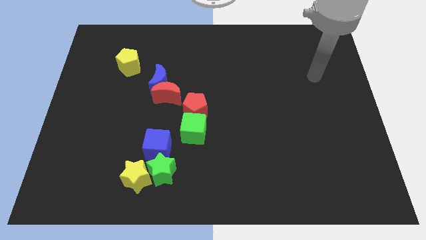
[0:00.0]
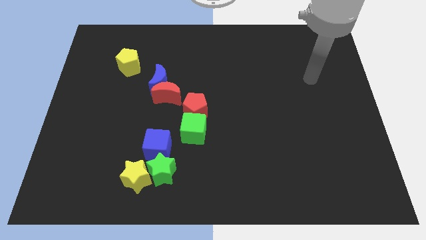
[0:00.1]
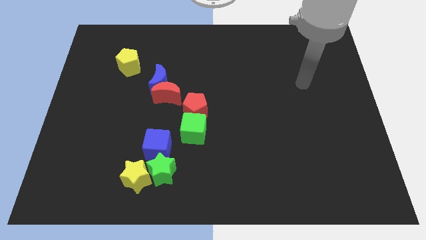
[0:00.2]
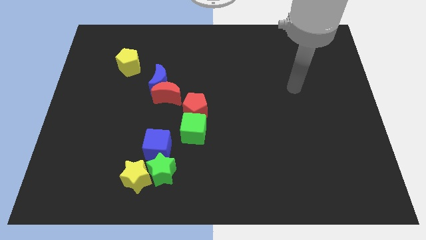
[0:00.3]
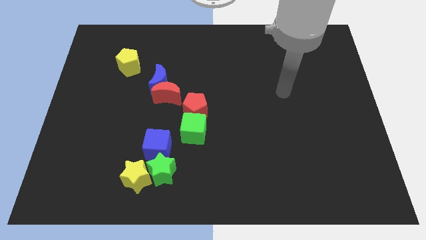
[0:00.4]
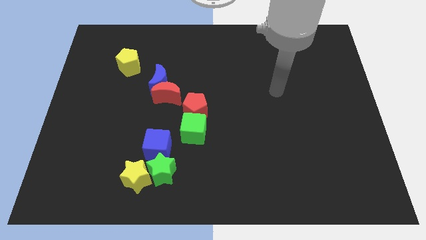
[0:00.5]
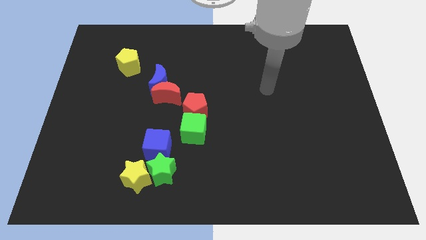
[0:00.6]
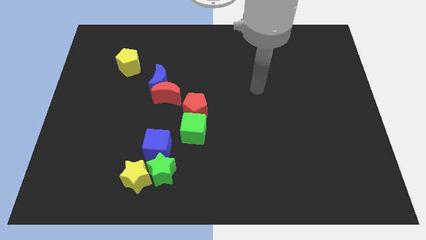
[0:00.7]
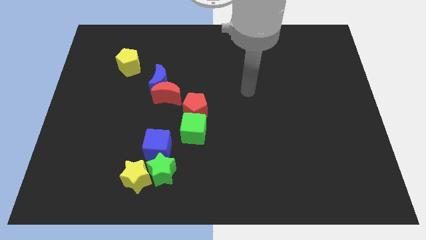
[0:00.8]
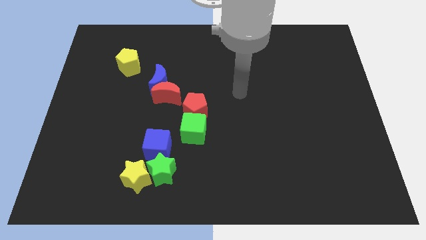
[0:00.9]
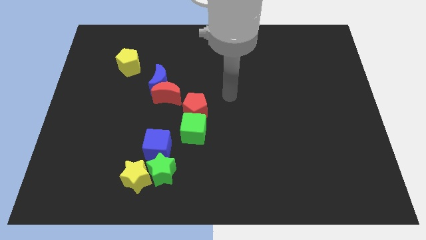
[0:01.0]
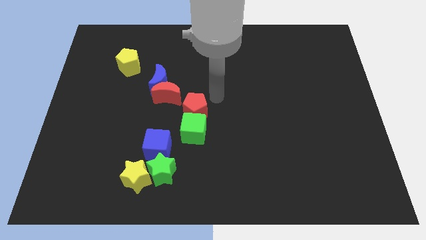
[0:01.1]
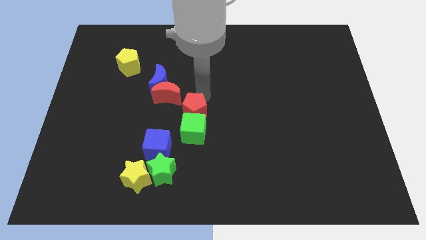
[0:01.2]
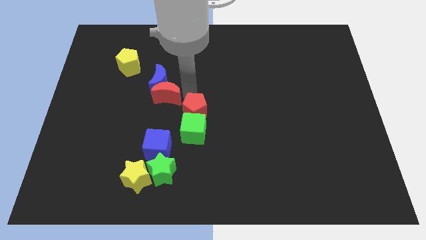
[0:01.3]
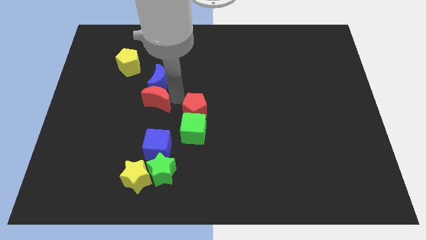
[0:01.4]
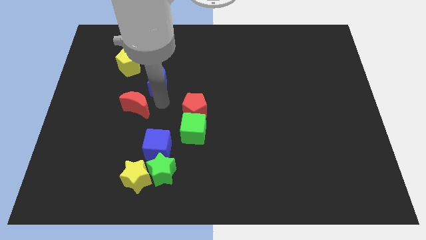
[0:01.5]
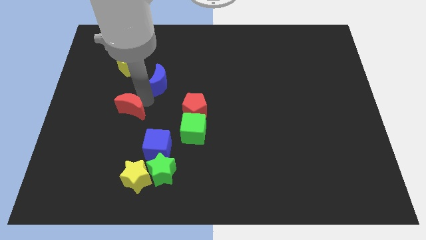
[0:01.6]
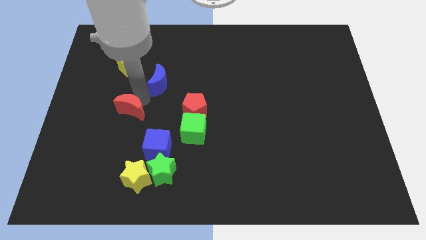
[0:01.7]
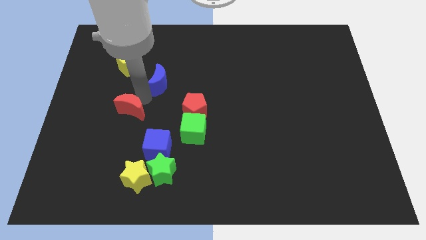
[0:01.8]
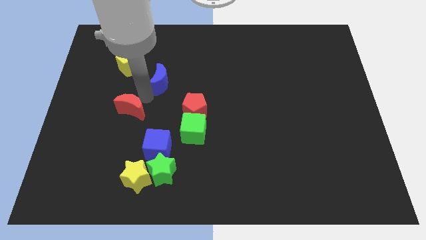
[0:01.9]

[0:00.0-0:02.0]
pull the blue moon apart from the red moon

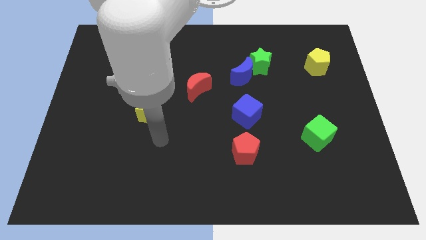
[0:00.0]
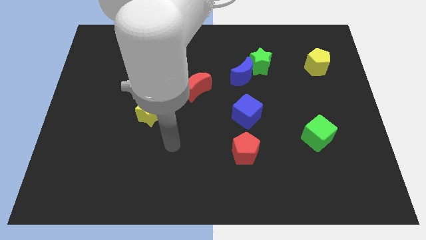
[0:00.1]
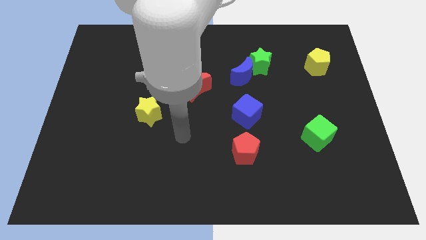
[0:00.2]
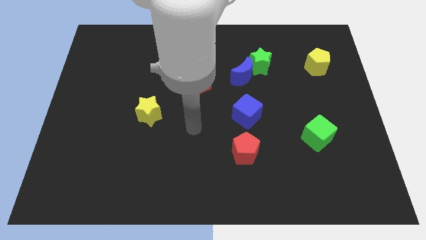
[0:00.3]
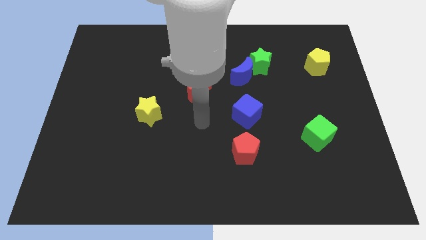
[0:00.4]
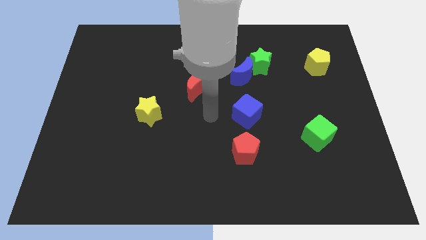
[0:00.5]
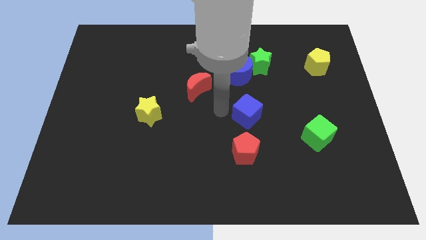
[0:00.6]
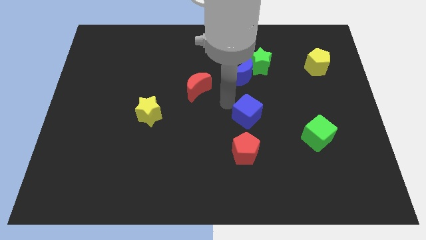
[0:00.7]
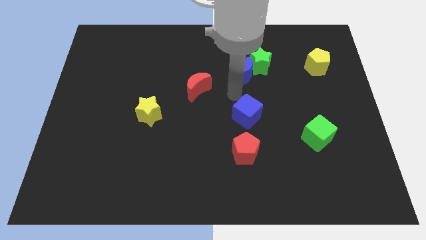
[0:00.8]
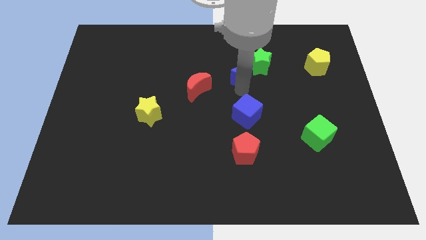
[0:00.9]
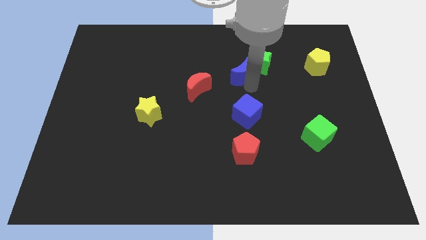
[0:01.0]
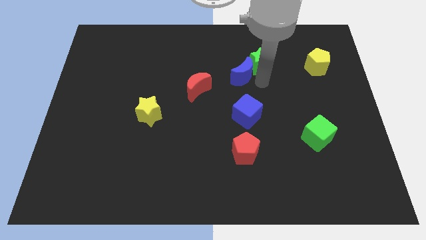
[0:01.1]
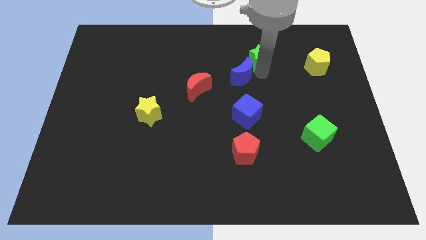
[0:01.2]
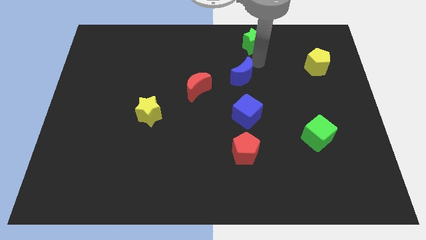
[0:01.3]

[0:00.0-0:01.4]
pull the blue moon apart from the green star

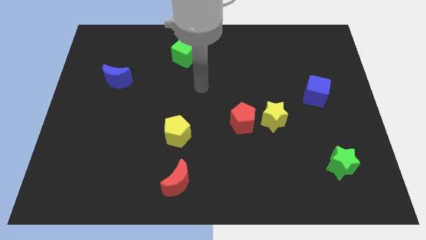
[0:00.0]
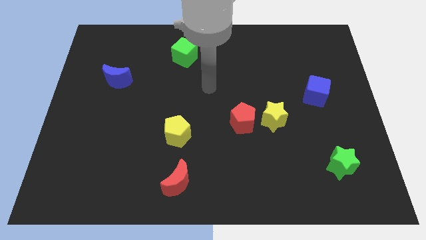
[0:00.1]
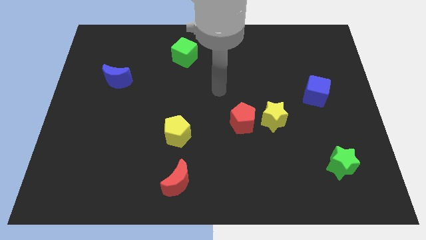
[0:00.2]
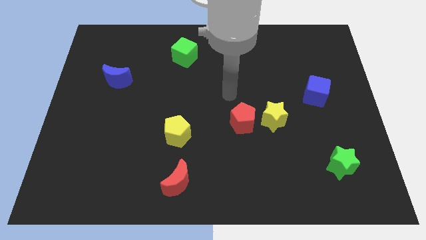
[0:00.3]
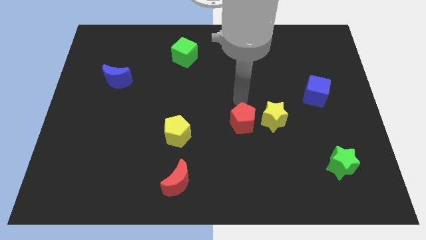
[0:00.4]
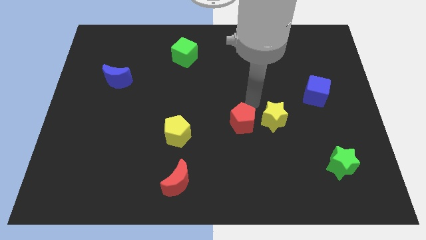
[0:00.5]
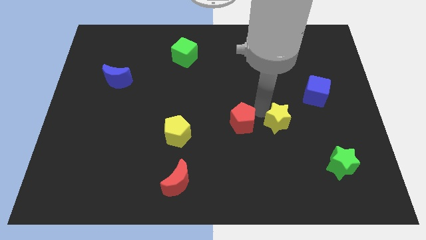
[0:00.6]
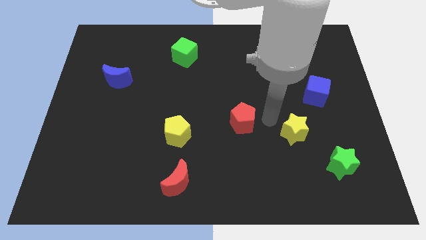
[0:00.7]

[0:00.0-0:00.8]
pull the red pentagon apart from the yellow star

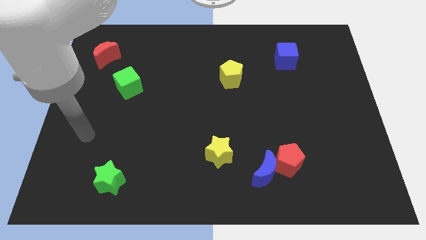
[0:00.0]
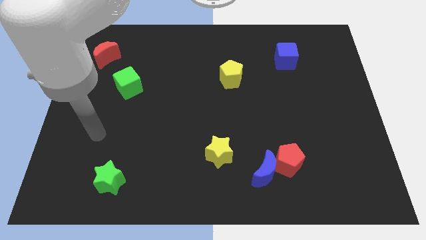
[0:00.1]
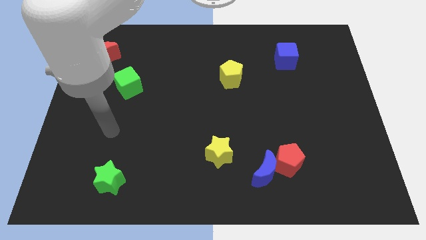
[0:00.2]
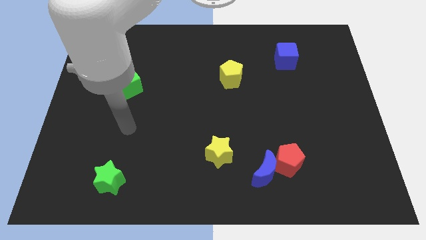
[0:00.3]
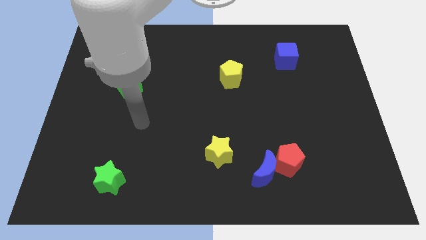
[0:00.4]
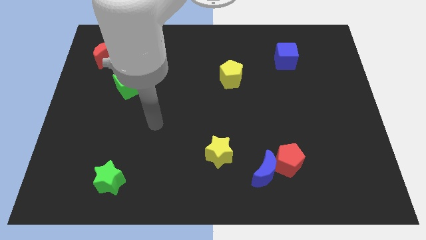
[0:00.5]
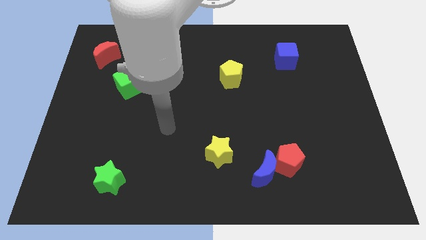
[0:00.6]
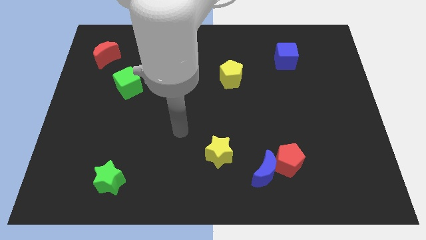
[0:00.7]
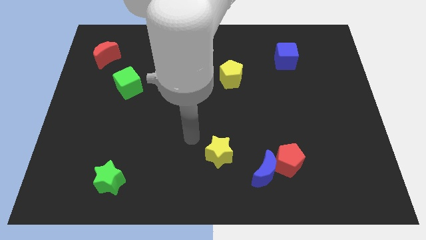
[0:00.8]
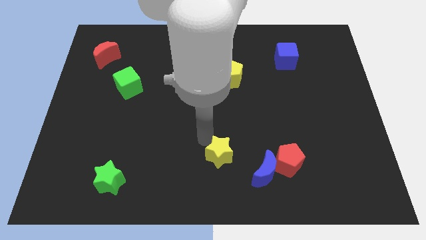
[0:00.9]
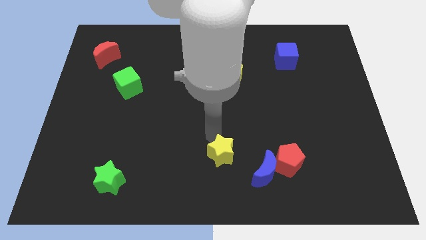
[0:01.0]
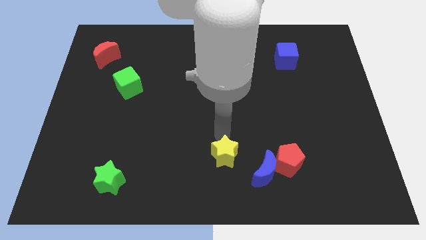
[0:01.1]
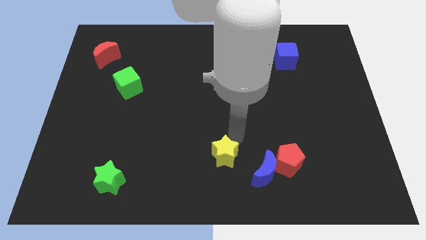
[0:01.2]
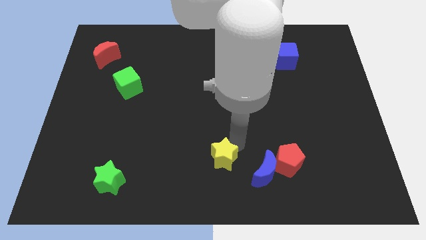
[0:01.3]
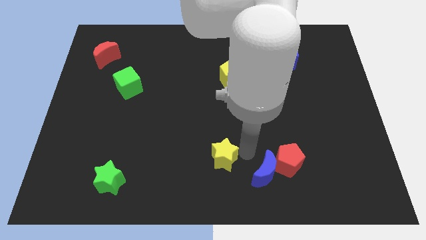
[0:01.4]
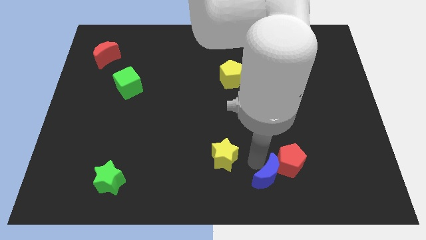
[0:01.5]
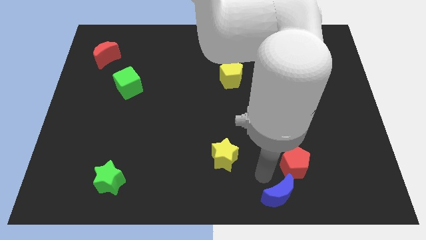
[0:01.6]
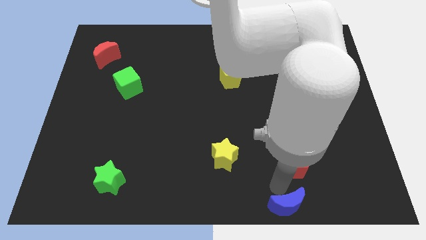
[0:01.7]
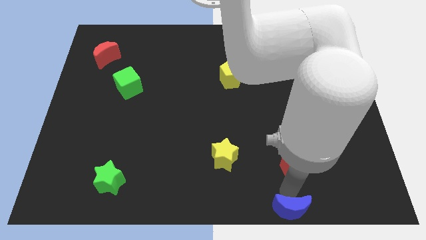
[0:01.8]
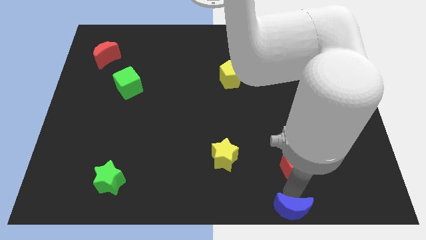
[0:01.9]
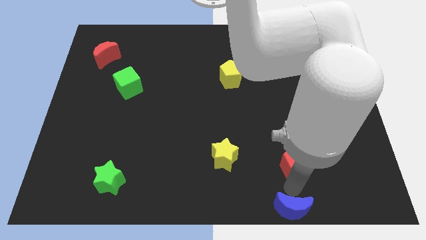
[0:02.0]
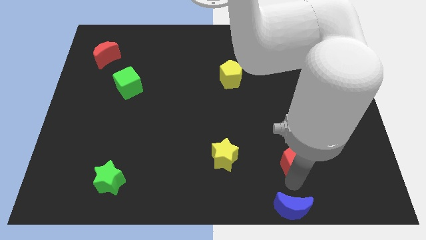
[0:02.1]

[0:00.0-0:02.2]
pull the red pentagon apart from the blue moon

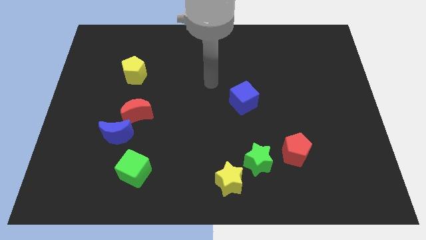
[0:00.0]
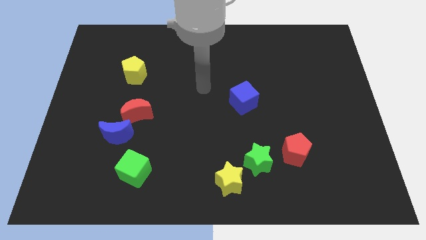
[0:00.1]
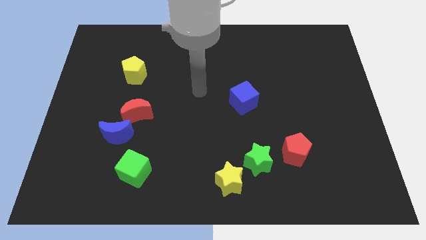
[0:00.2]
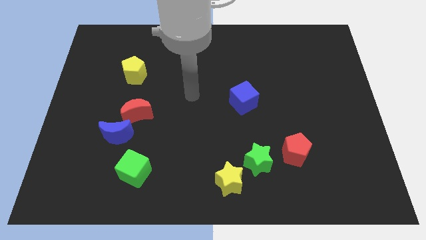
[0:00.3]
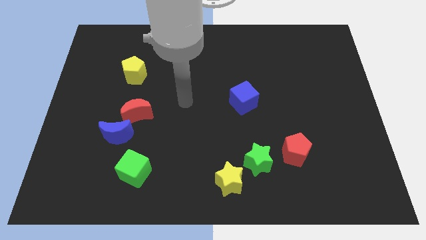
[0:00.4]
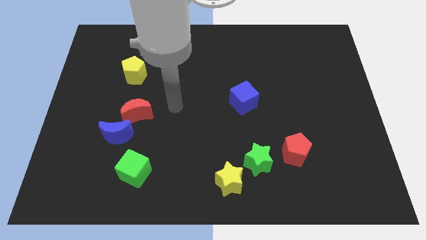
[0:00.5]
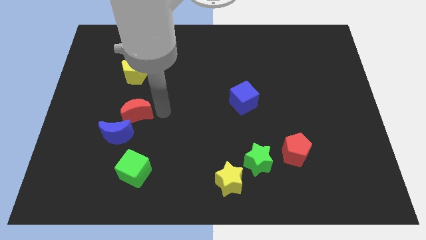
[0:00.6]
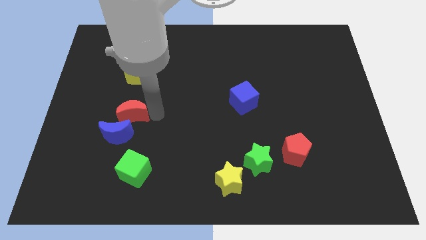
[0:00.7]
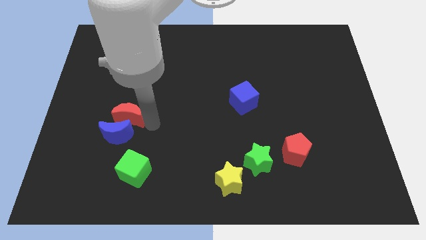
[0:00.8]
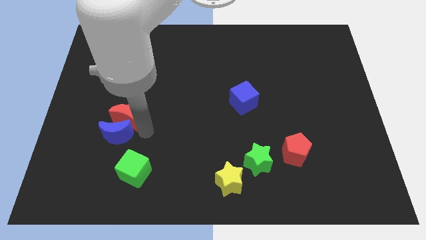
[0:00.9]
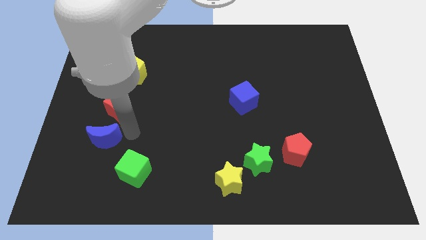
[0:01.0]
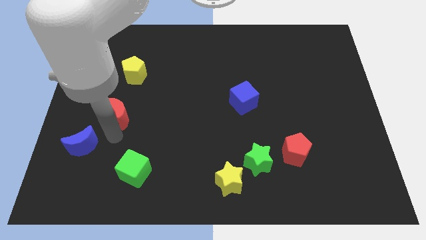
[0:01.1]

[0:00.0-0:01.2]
pull the red moon apart from the blue moon

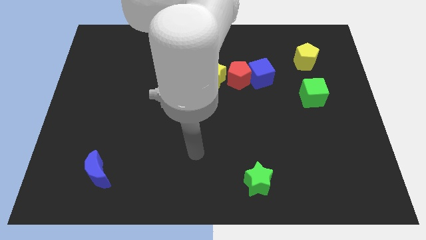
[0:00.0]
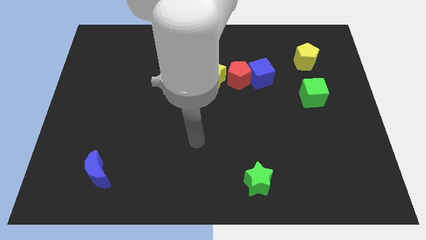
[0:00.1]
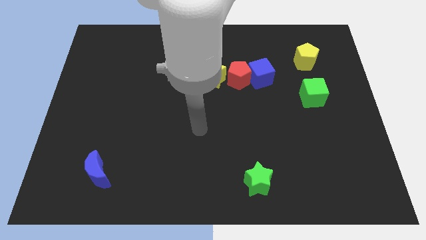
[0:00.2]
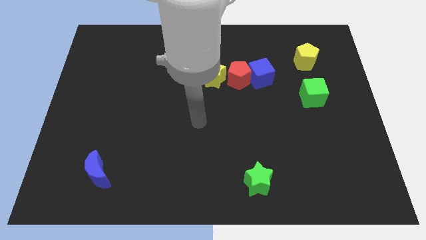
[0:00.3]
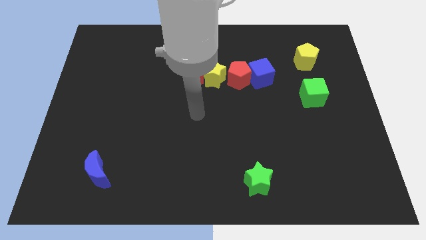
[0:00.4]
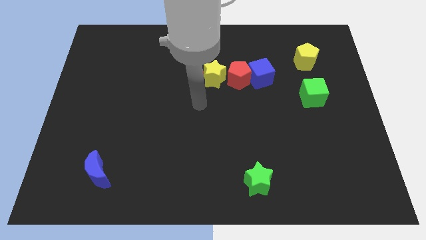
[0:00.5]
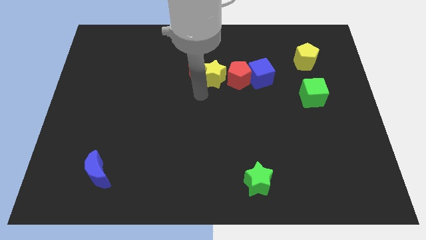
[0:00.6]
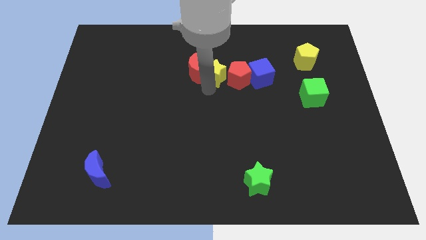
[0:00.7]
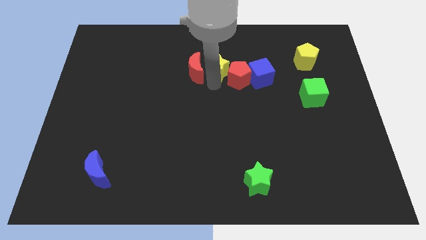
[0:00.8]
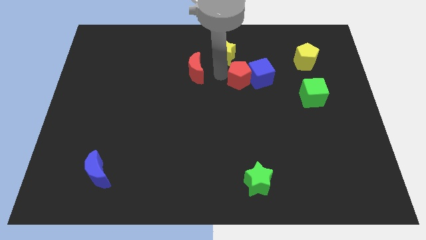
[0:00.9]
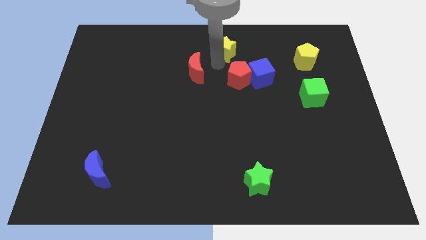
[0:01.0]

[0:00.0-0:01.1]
move the red moon away from the yellow star

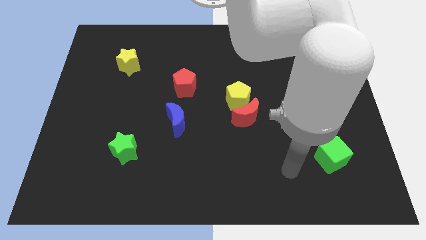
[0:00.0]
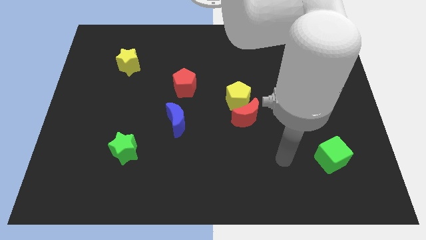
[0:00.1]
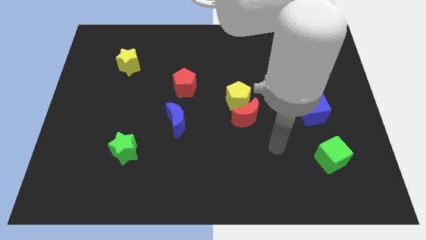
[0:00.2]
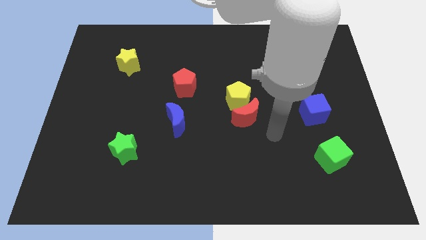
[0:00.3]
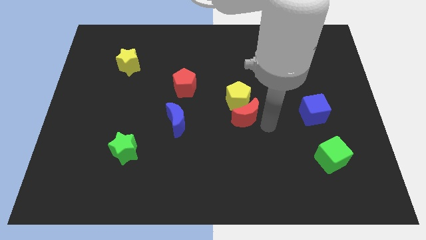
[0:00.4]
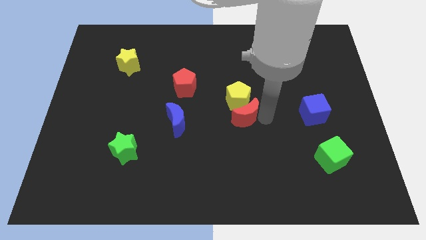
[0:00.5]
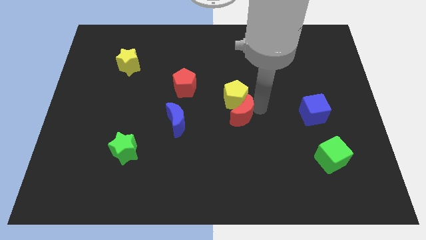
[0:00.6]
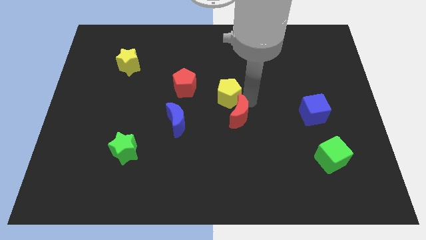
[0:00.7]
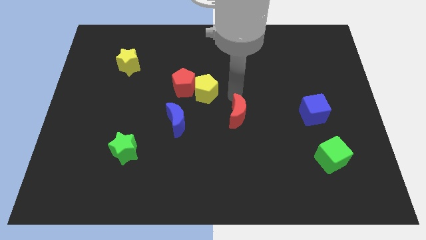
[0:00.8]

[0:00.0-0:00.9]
pull the red moon apart from the yellow pentagon
